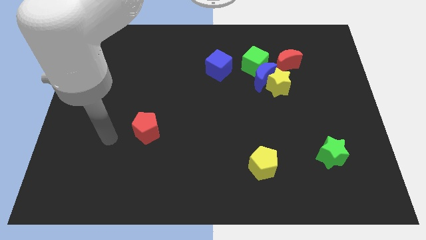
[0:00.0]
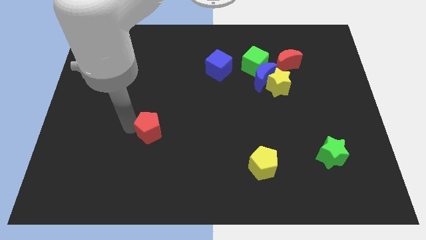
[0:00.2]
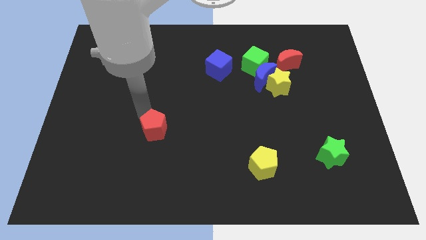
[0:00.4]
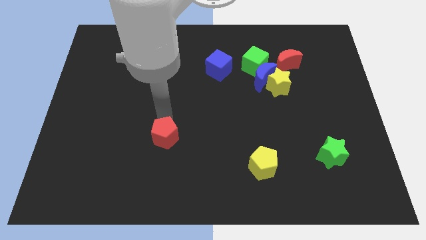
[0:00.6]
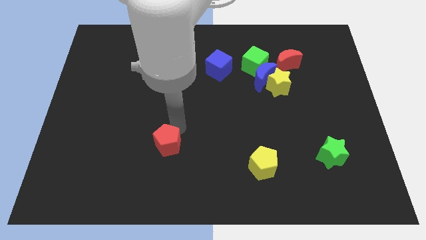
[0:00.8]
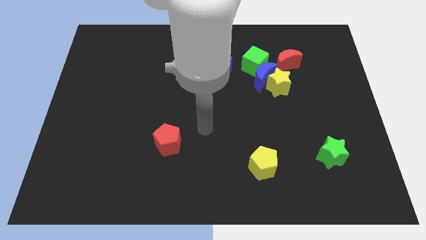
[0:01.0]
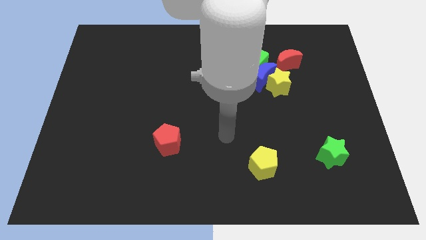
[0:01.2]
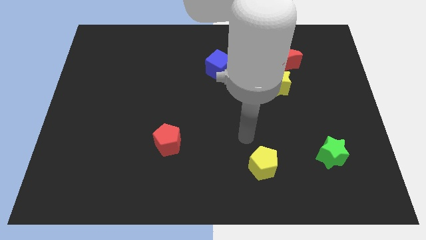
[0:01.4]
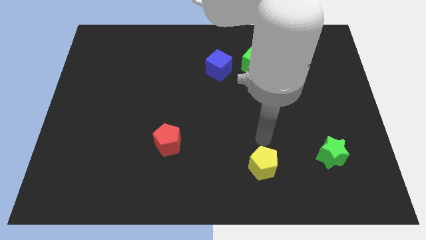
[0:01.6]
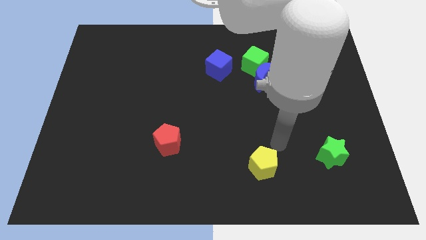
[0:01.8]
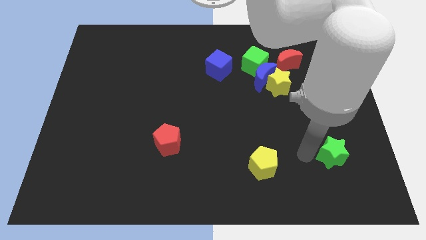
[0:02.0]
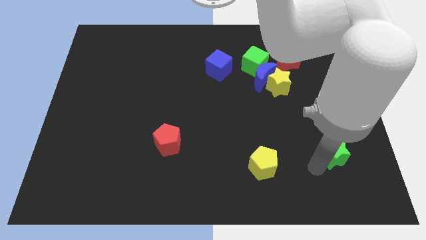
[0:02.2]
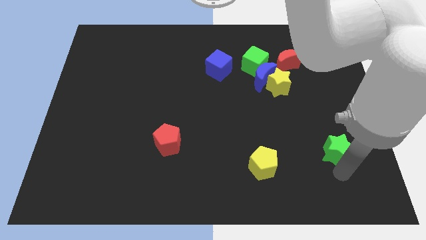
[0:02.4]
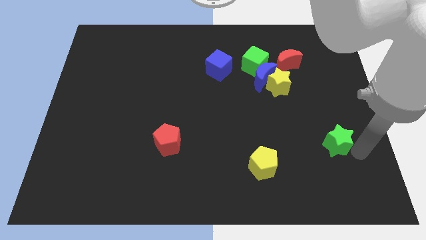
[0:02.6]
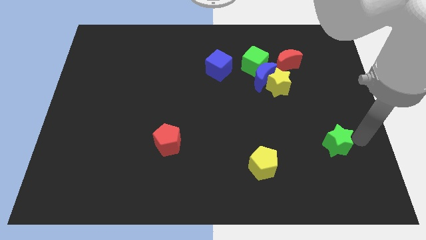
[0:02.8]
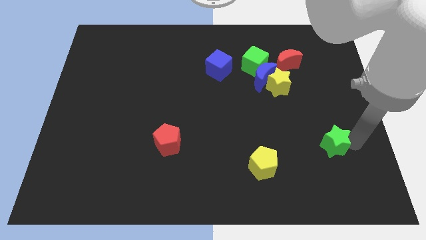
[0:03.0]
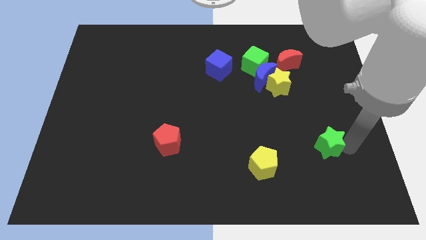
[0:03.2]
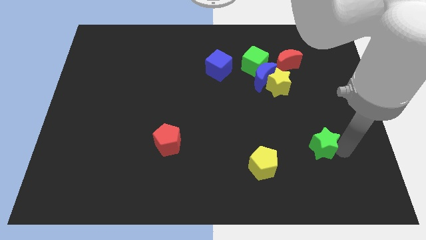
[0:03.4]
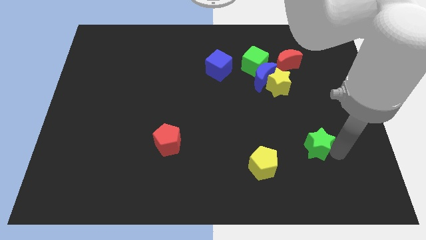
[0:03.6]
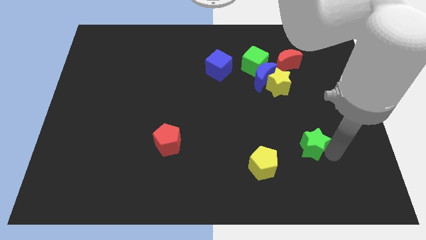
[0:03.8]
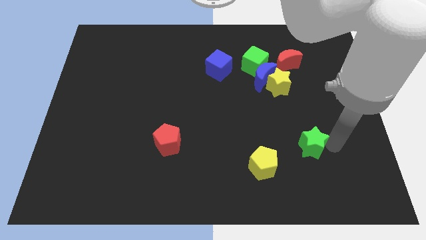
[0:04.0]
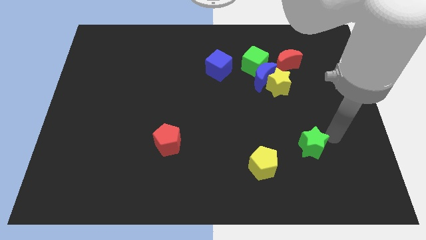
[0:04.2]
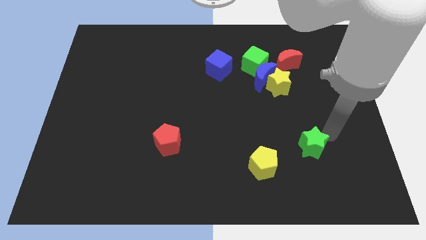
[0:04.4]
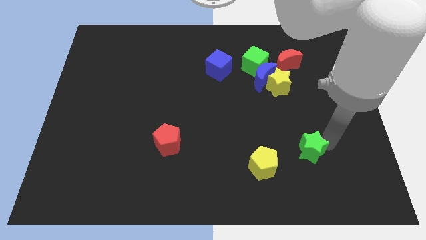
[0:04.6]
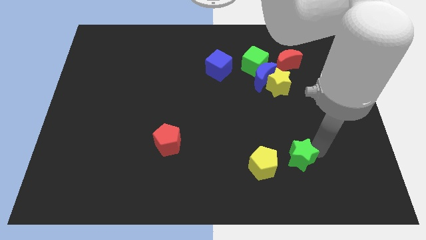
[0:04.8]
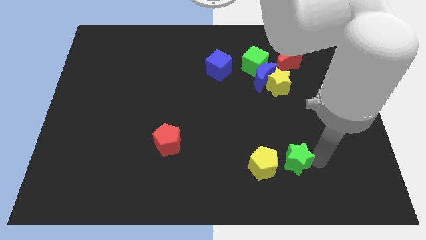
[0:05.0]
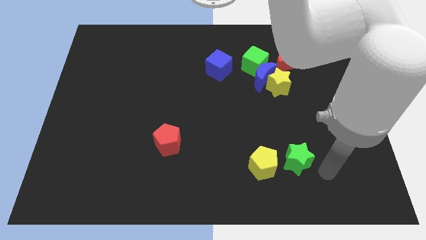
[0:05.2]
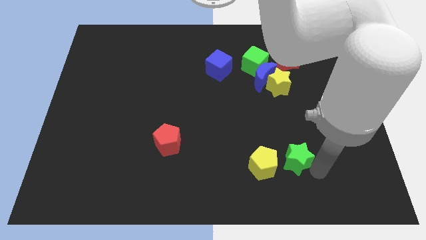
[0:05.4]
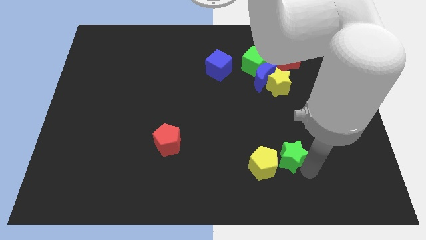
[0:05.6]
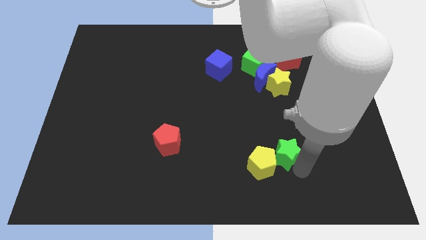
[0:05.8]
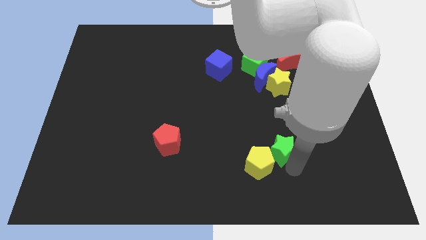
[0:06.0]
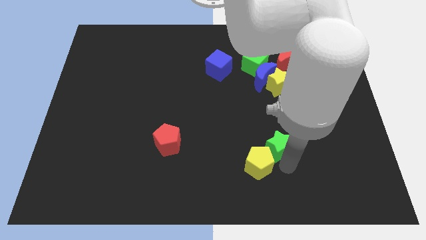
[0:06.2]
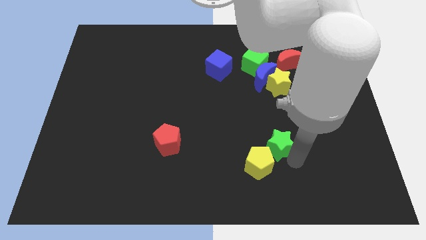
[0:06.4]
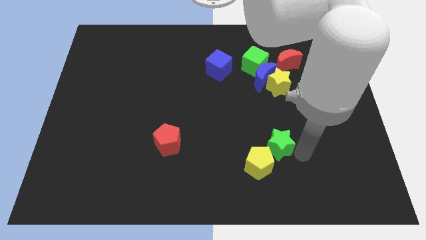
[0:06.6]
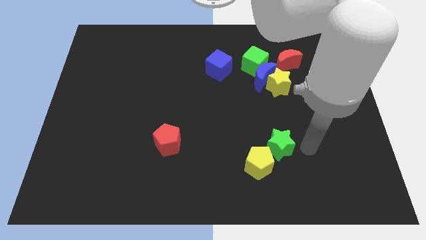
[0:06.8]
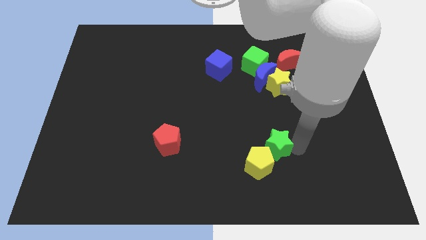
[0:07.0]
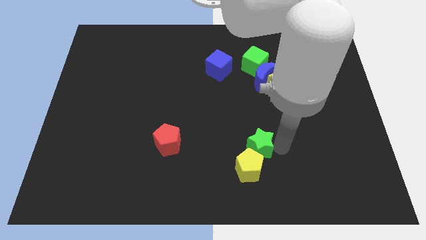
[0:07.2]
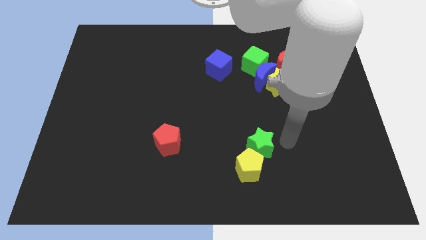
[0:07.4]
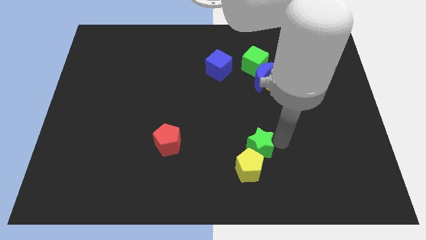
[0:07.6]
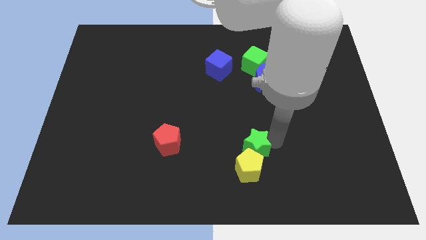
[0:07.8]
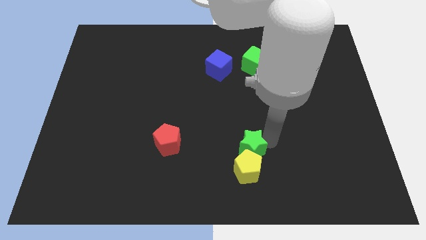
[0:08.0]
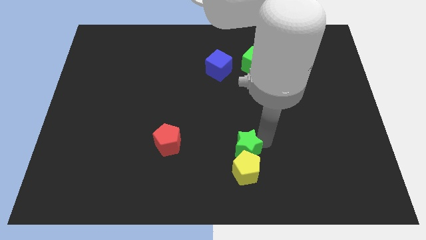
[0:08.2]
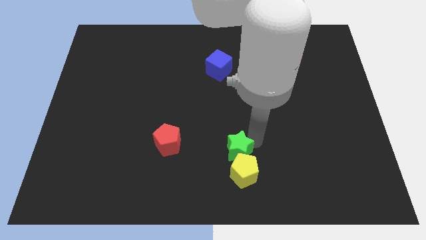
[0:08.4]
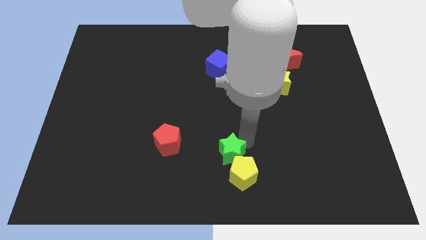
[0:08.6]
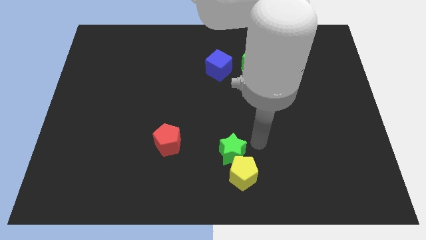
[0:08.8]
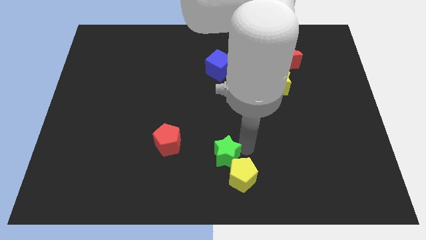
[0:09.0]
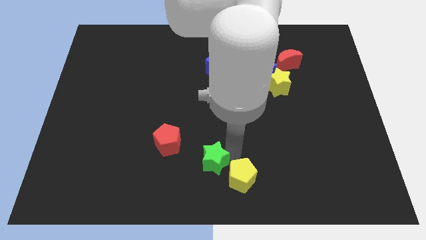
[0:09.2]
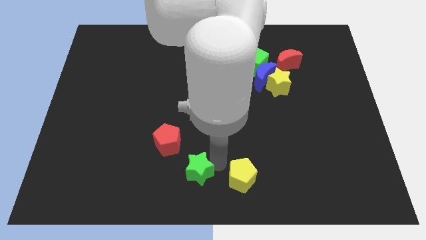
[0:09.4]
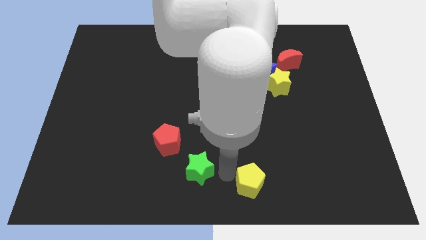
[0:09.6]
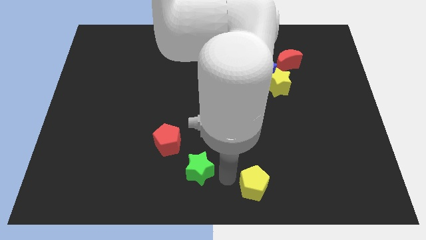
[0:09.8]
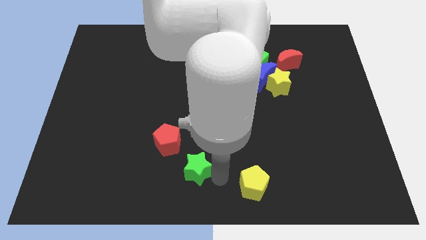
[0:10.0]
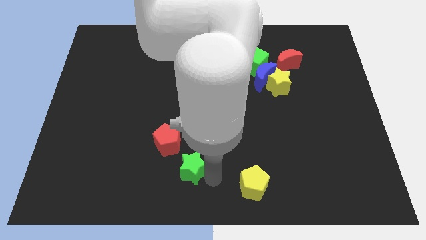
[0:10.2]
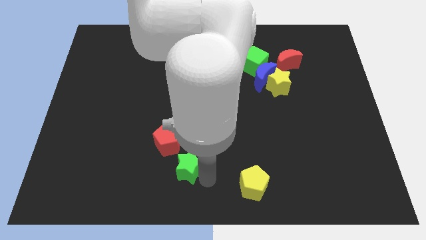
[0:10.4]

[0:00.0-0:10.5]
put the green star to the bottom side of the red pentagon

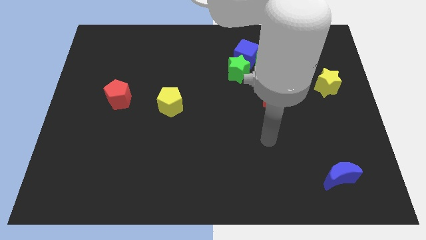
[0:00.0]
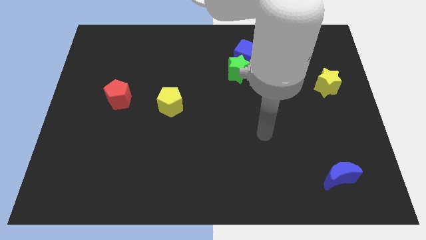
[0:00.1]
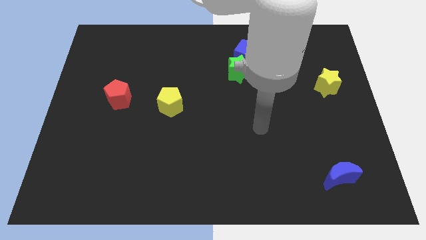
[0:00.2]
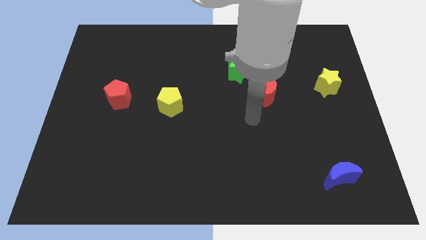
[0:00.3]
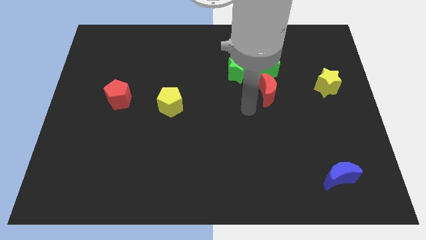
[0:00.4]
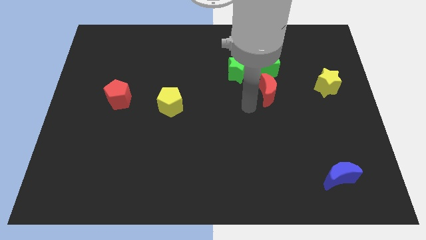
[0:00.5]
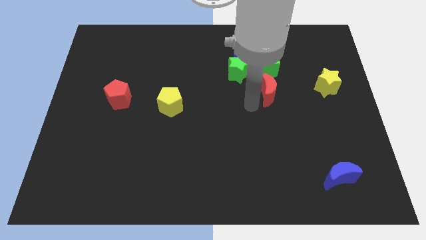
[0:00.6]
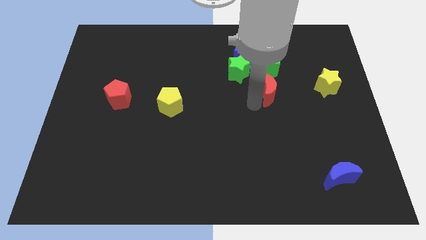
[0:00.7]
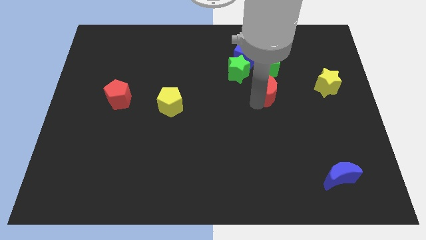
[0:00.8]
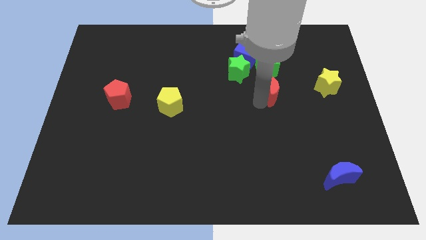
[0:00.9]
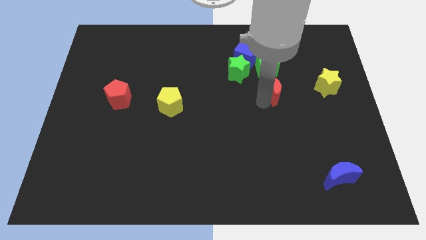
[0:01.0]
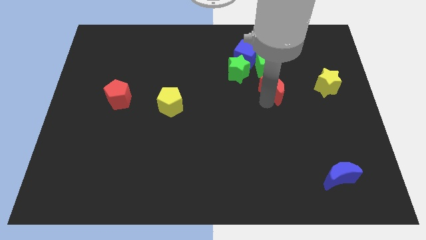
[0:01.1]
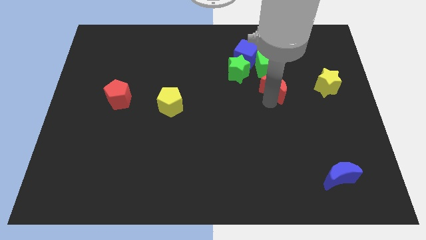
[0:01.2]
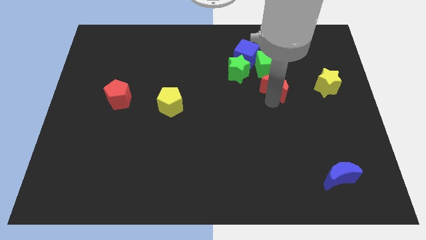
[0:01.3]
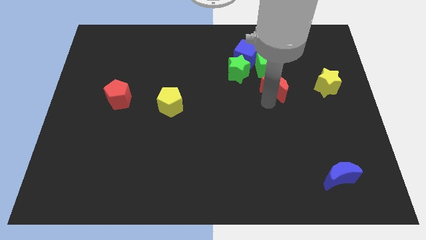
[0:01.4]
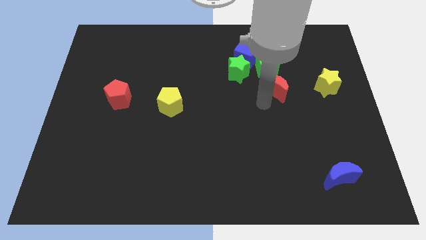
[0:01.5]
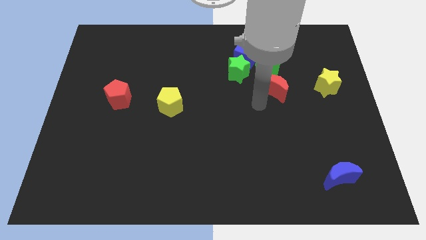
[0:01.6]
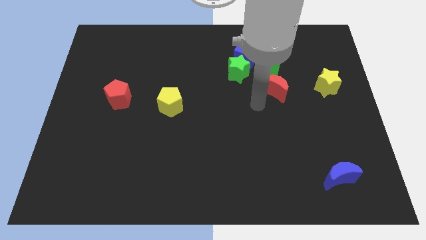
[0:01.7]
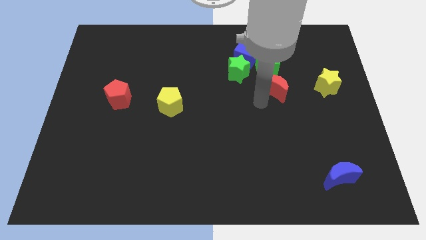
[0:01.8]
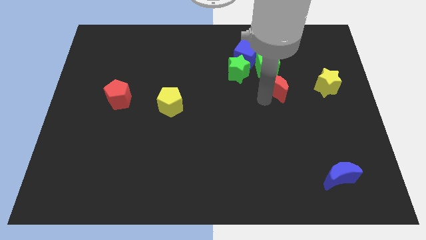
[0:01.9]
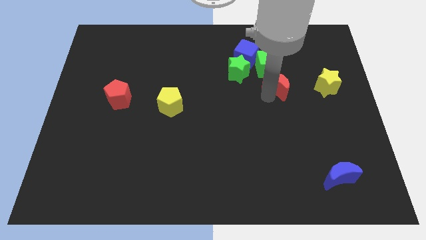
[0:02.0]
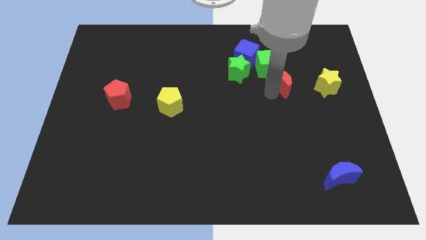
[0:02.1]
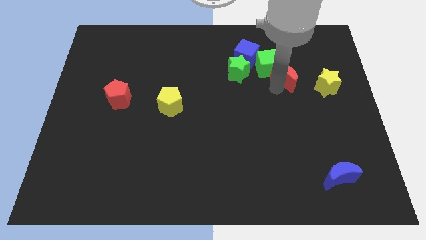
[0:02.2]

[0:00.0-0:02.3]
move the red moon to the right of the green cube
